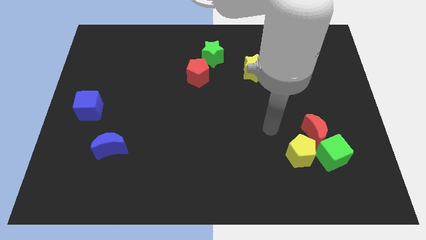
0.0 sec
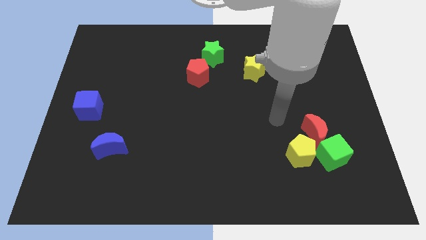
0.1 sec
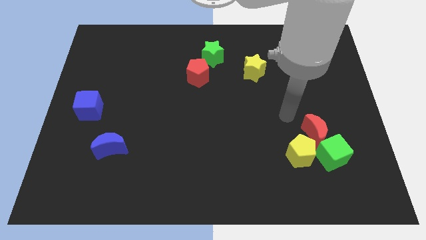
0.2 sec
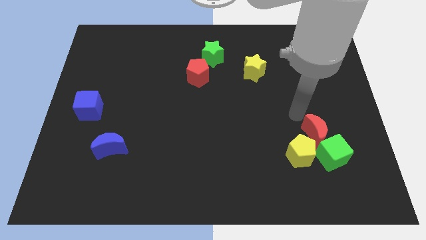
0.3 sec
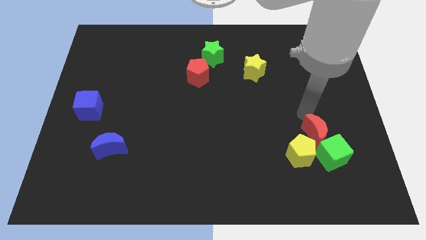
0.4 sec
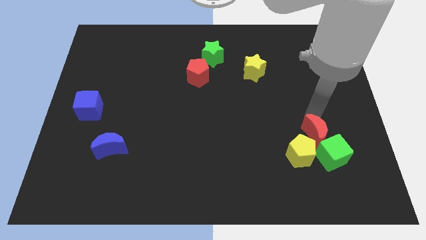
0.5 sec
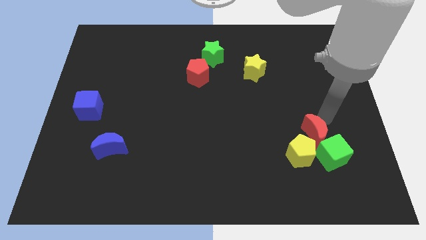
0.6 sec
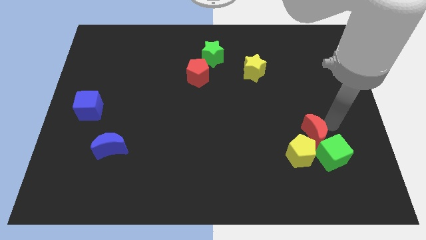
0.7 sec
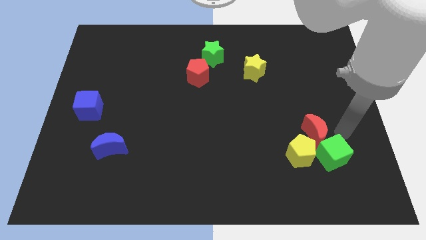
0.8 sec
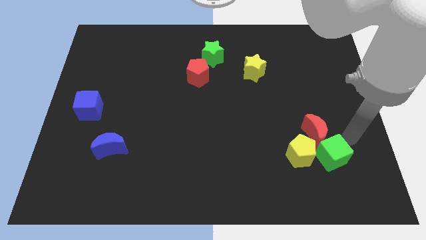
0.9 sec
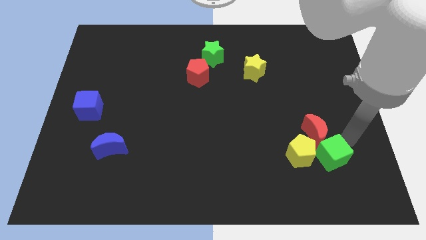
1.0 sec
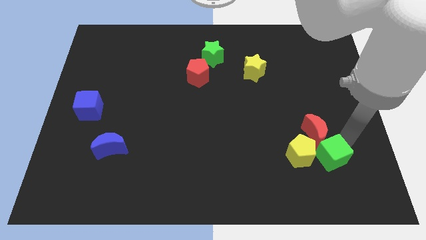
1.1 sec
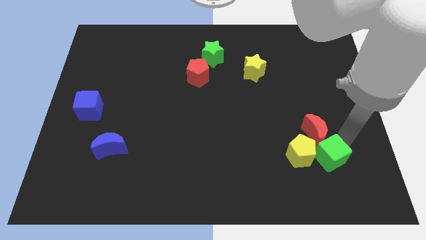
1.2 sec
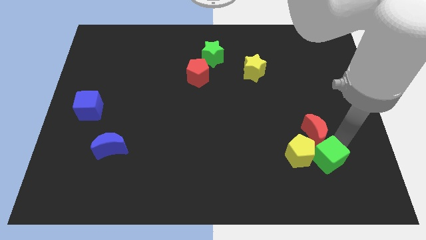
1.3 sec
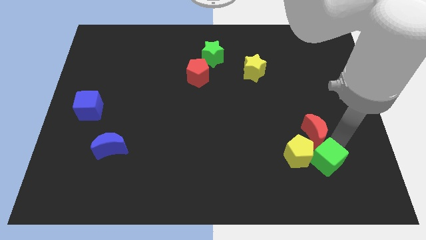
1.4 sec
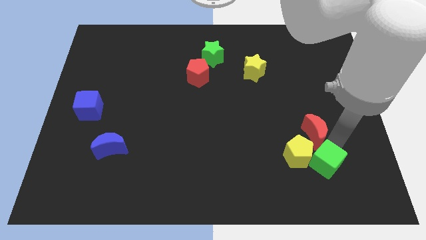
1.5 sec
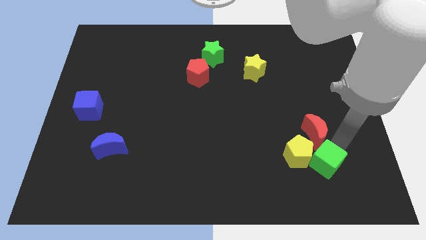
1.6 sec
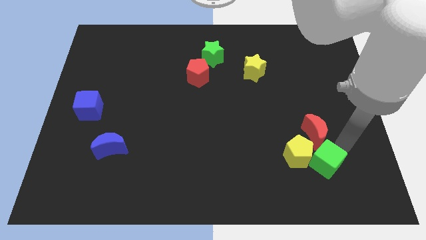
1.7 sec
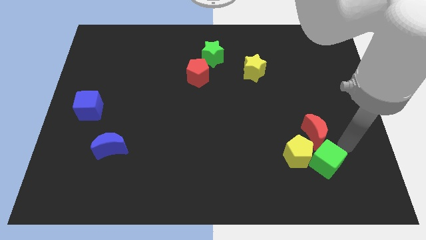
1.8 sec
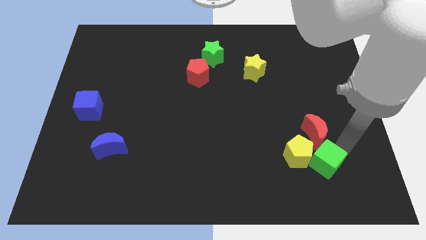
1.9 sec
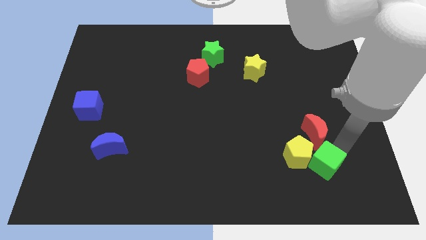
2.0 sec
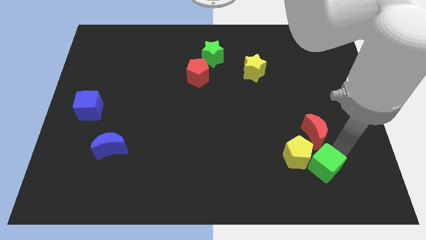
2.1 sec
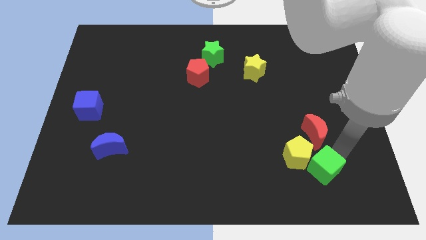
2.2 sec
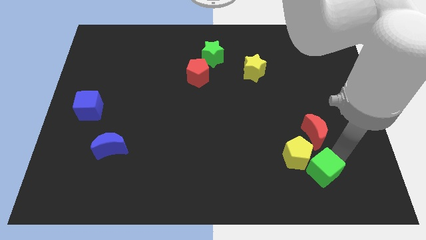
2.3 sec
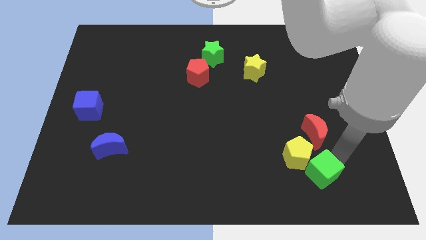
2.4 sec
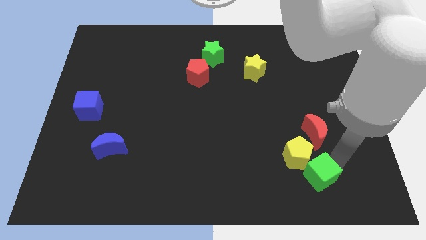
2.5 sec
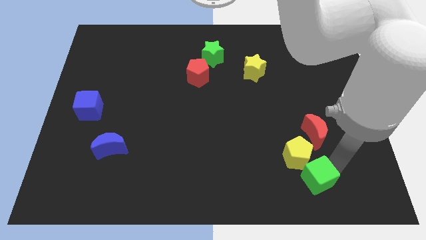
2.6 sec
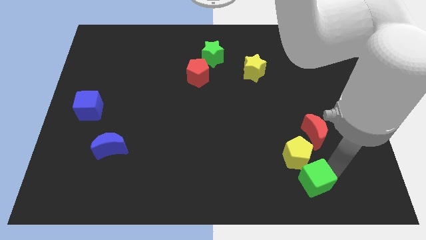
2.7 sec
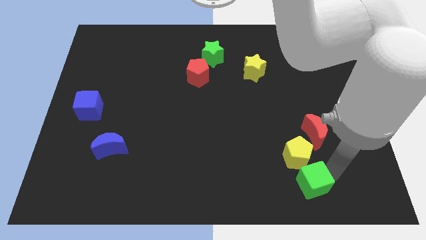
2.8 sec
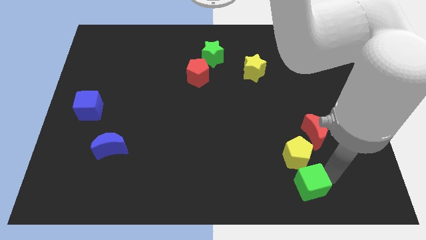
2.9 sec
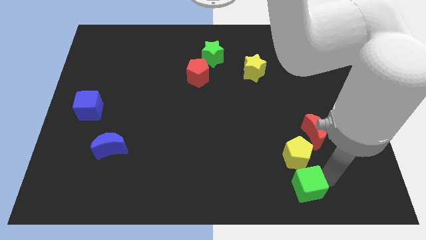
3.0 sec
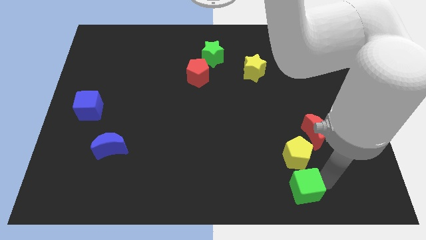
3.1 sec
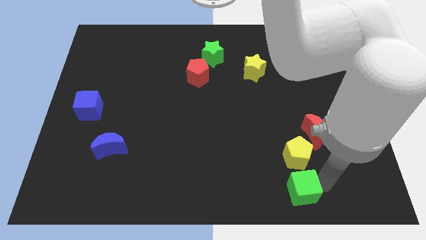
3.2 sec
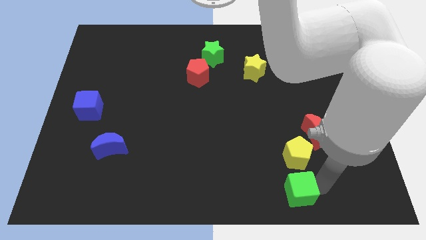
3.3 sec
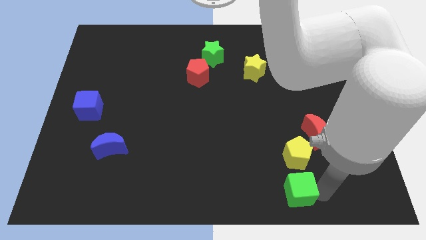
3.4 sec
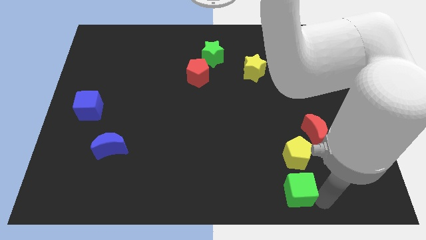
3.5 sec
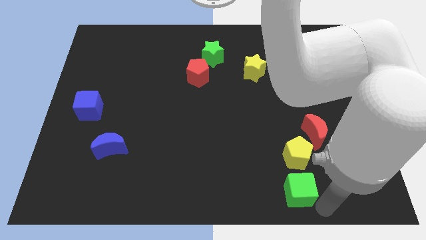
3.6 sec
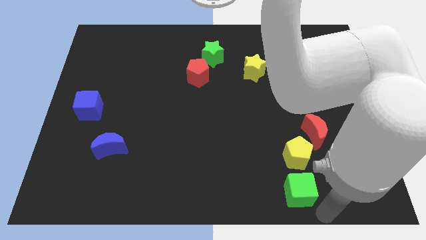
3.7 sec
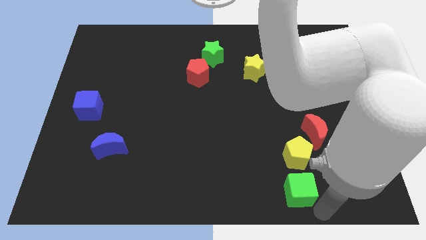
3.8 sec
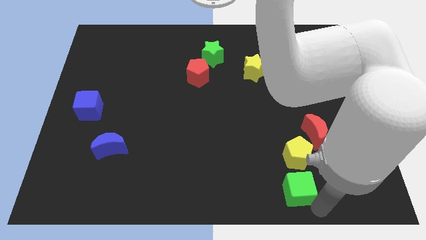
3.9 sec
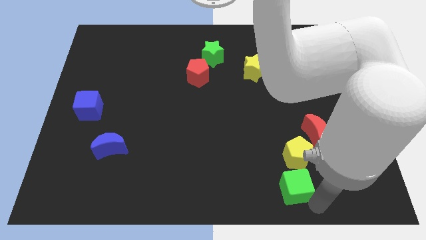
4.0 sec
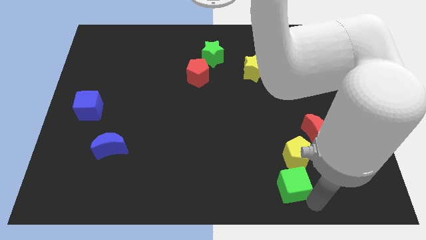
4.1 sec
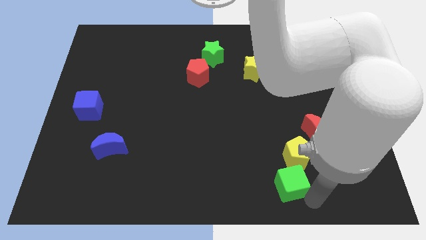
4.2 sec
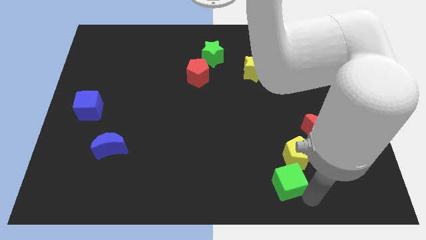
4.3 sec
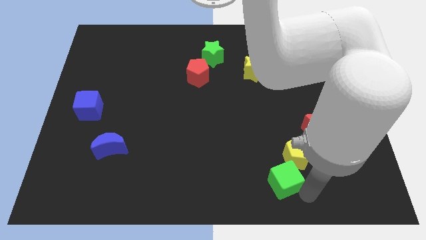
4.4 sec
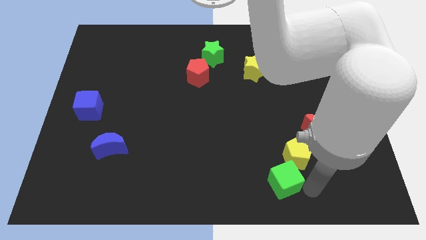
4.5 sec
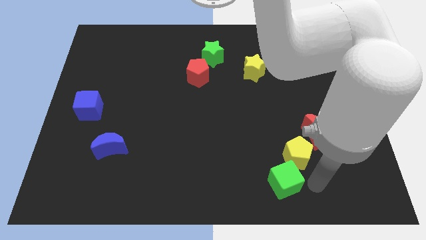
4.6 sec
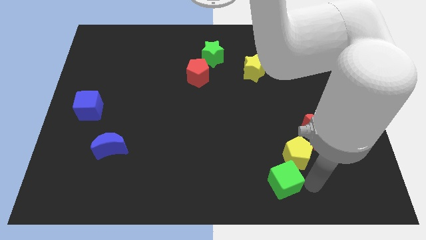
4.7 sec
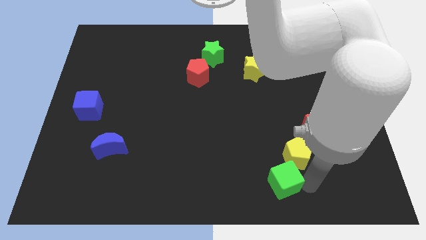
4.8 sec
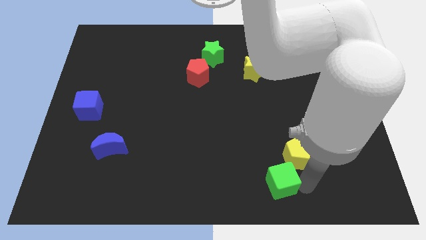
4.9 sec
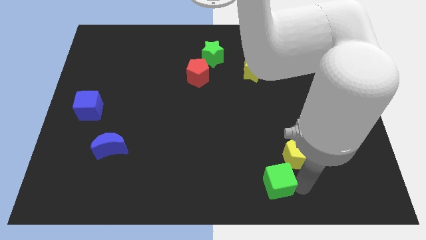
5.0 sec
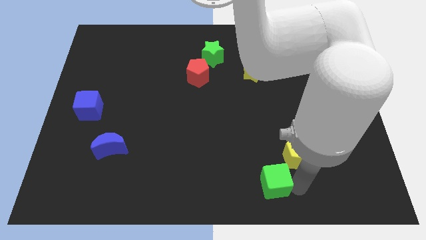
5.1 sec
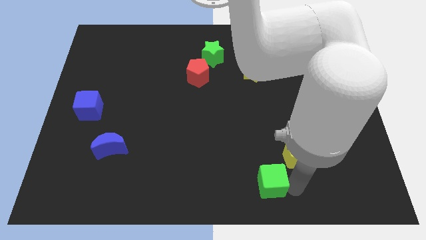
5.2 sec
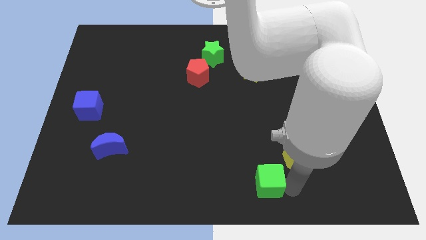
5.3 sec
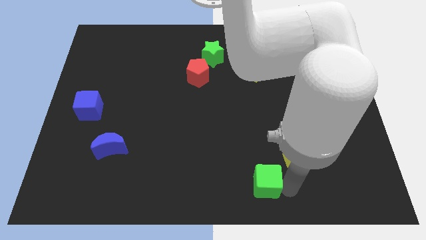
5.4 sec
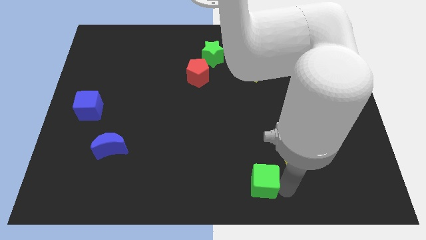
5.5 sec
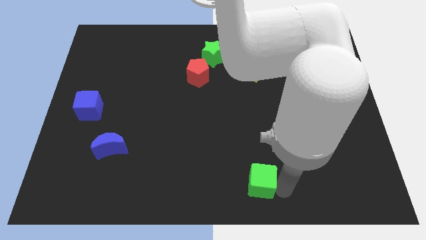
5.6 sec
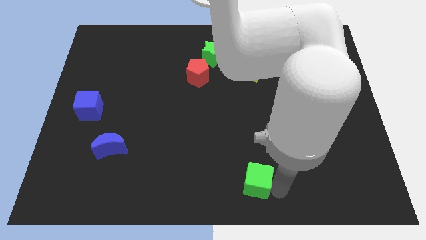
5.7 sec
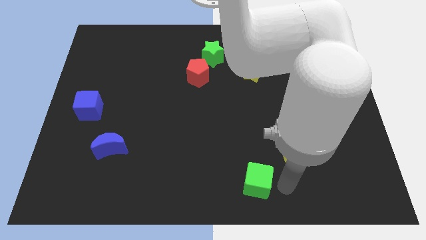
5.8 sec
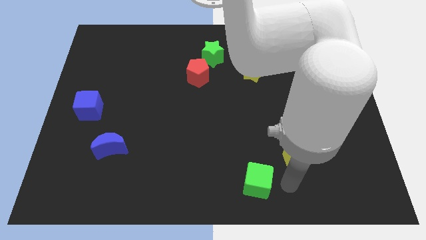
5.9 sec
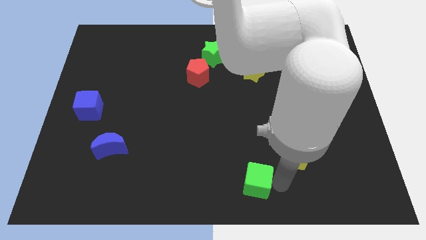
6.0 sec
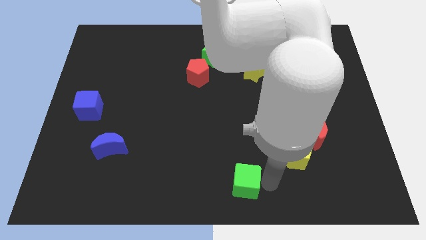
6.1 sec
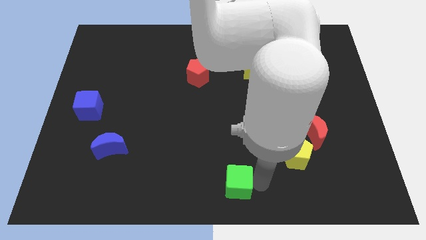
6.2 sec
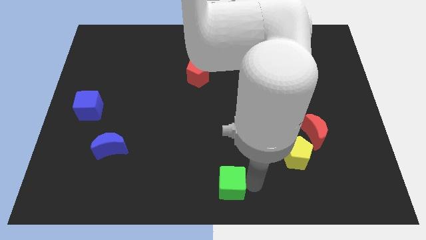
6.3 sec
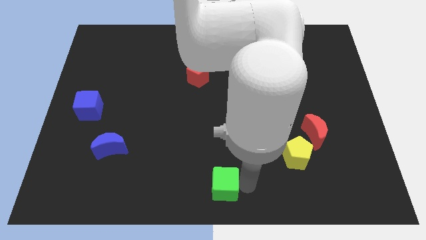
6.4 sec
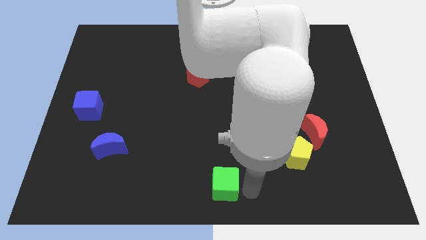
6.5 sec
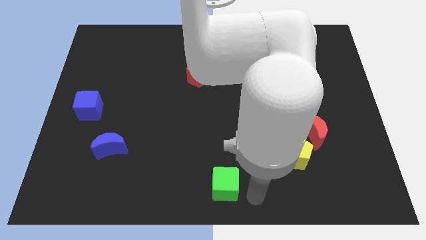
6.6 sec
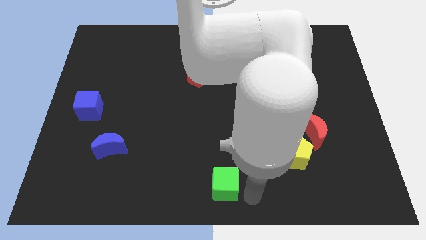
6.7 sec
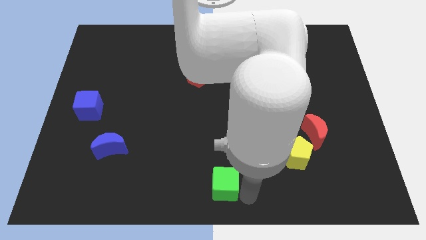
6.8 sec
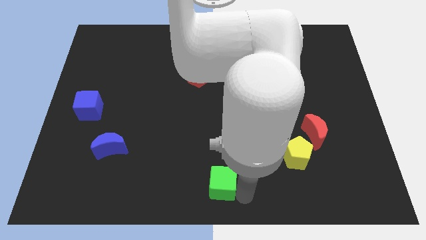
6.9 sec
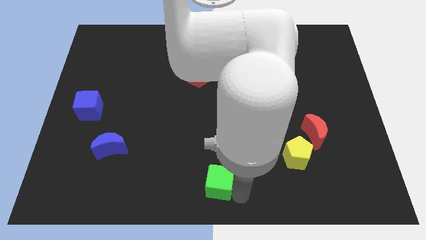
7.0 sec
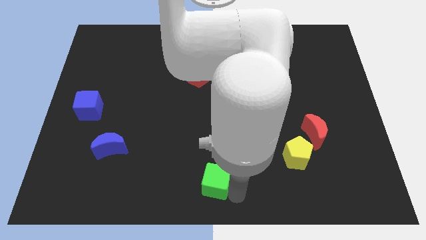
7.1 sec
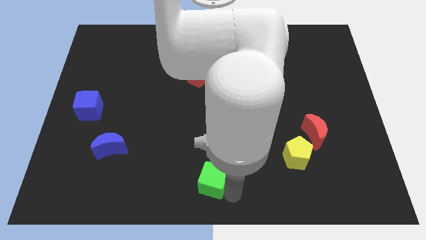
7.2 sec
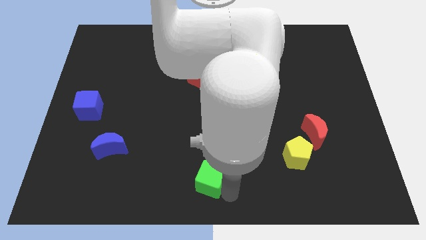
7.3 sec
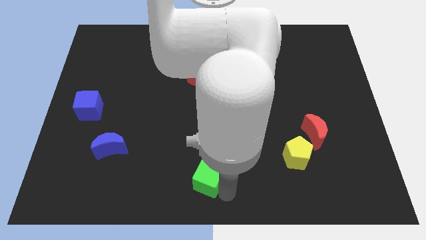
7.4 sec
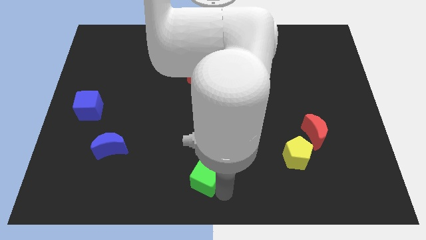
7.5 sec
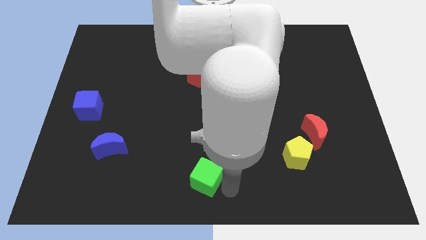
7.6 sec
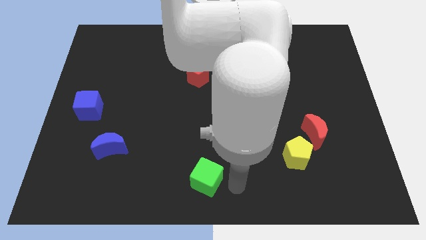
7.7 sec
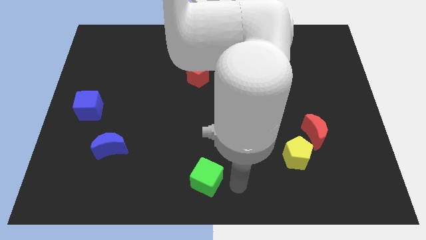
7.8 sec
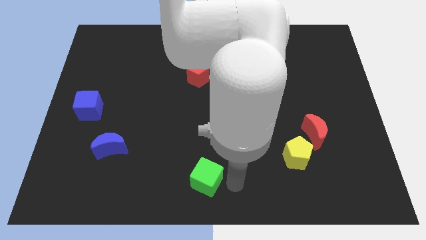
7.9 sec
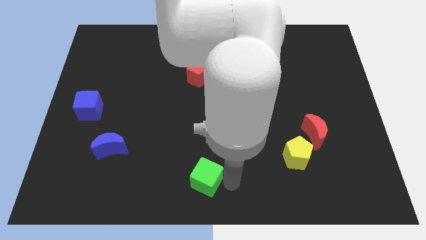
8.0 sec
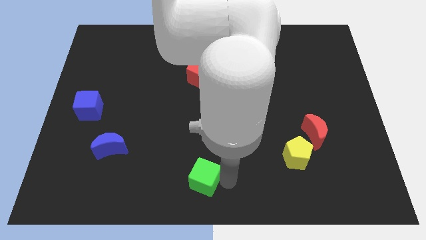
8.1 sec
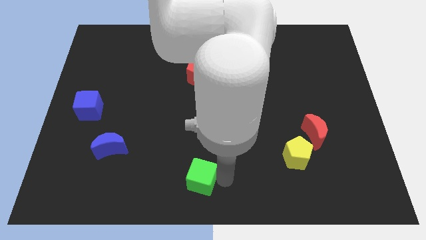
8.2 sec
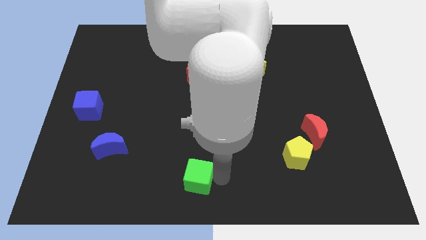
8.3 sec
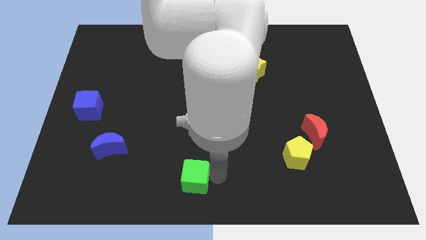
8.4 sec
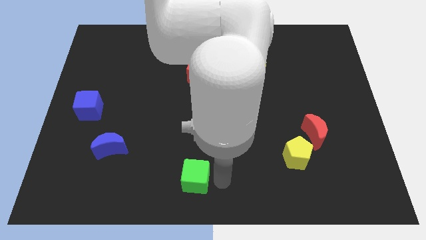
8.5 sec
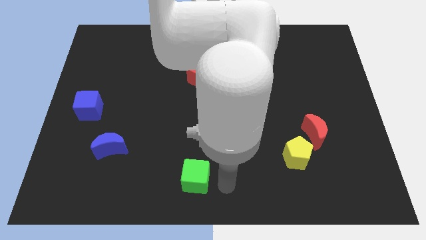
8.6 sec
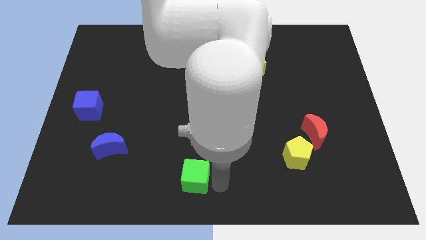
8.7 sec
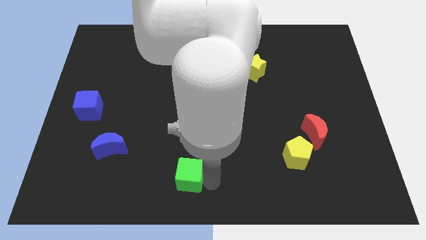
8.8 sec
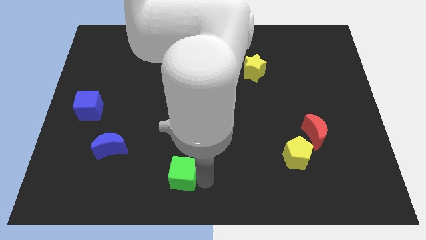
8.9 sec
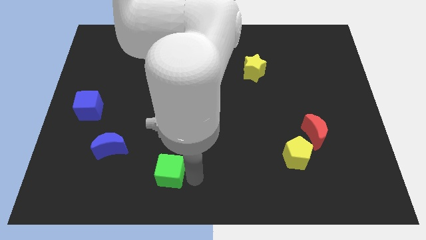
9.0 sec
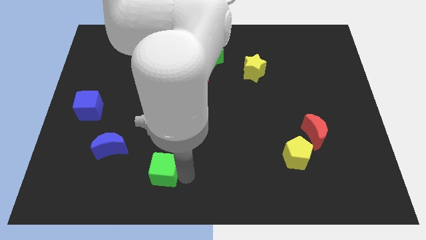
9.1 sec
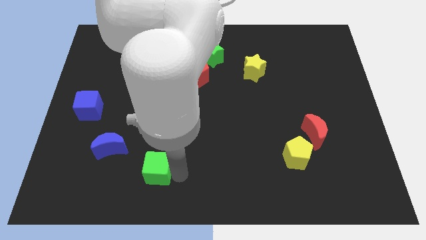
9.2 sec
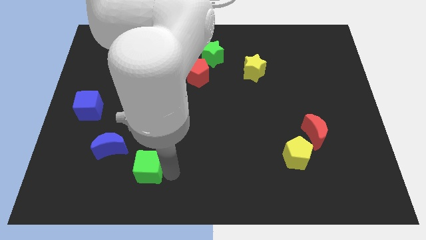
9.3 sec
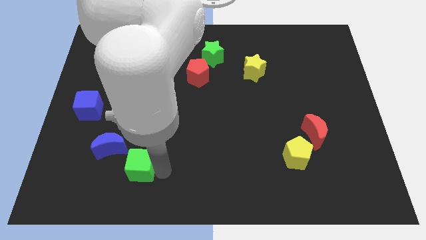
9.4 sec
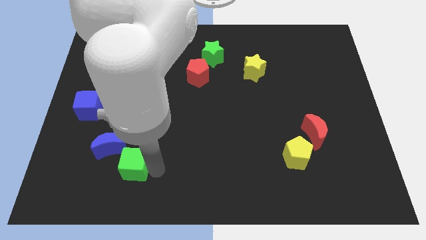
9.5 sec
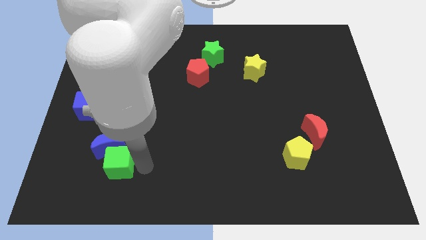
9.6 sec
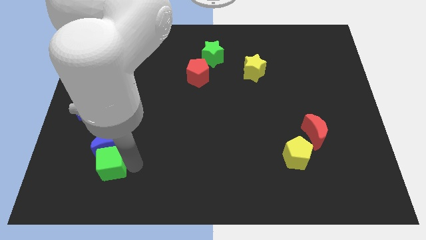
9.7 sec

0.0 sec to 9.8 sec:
slide the green cube diagonally down and to the left of the blue moon
